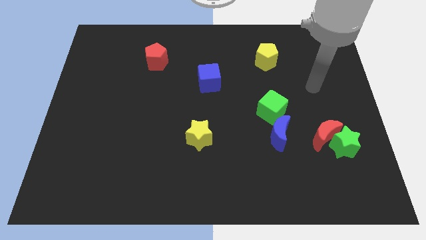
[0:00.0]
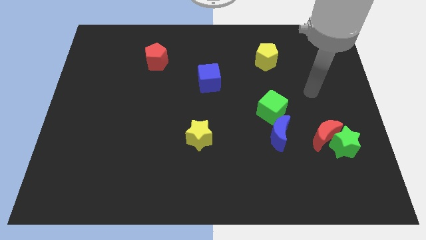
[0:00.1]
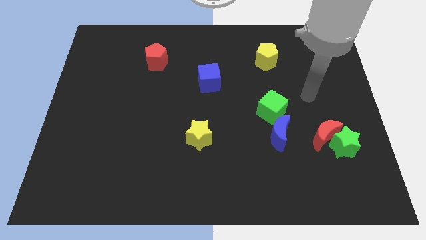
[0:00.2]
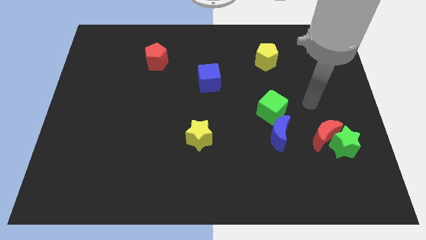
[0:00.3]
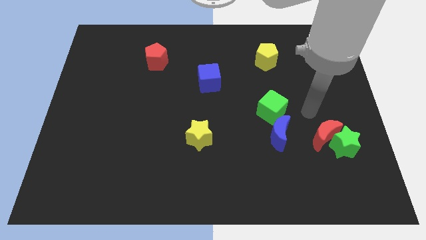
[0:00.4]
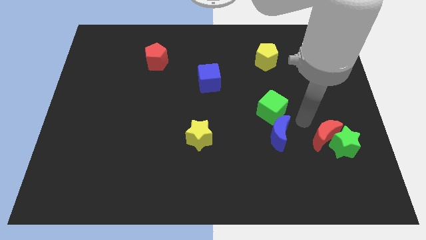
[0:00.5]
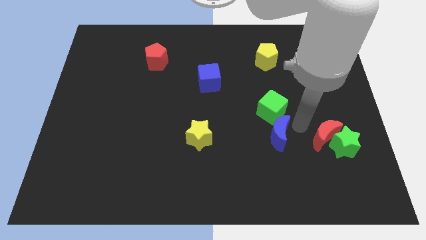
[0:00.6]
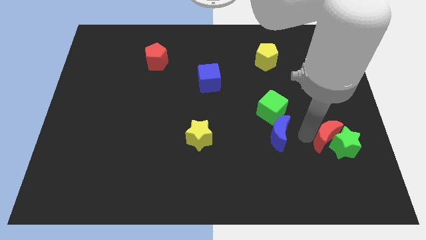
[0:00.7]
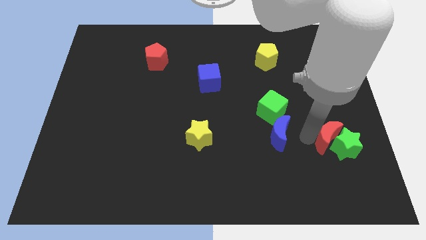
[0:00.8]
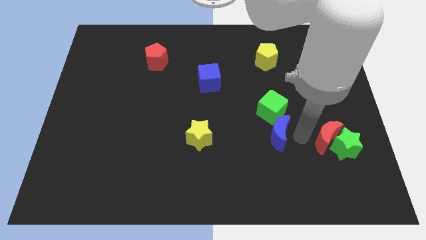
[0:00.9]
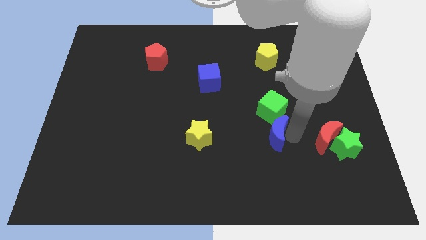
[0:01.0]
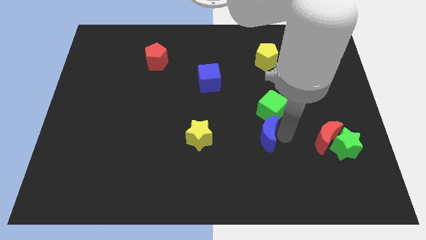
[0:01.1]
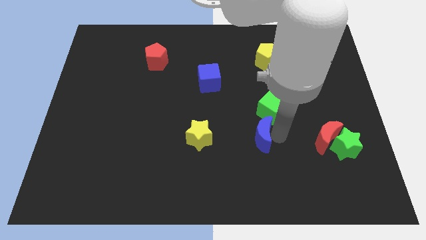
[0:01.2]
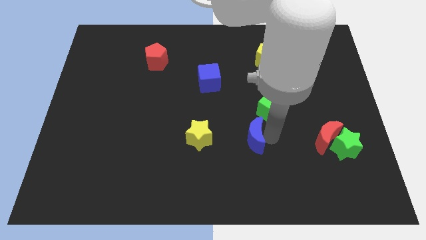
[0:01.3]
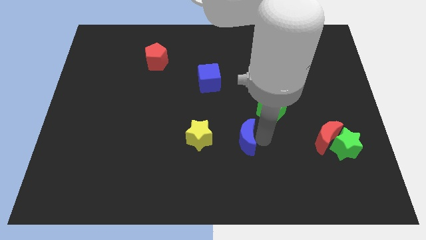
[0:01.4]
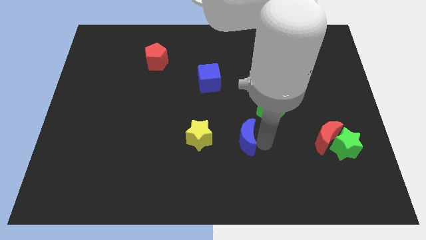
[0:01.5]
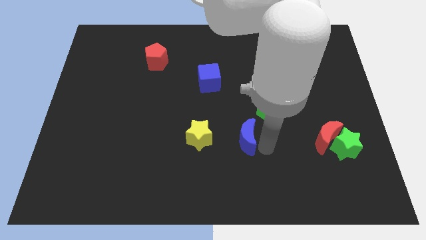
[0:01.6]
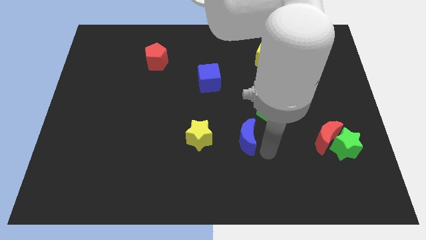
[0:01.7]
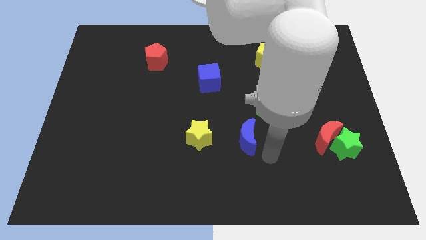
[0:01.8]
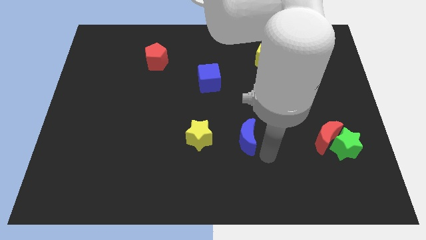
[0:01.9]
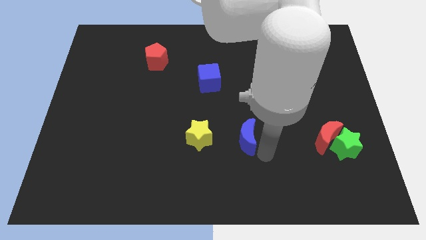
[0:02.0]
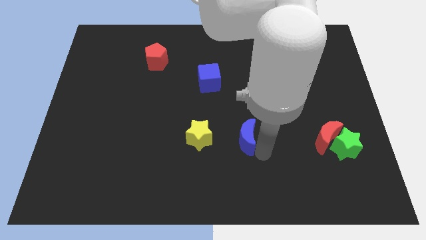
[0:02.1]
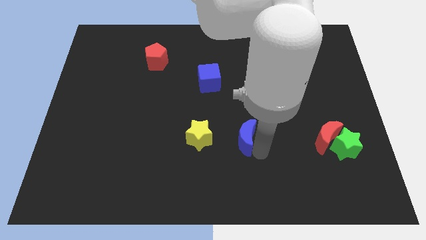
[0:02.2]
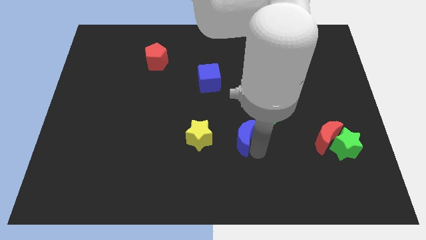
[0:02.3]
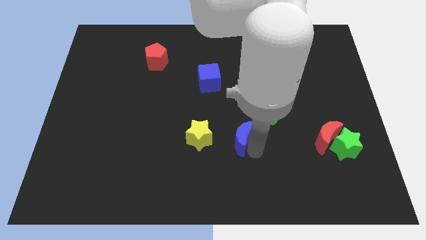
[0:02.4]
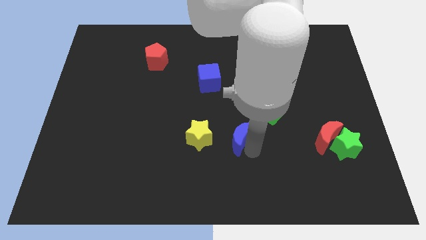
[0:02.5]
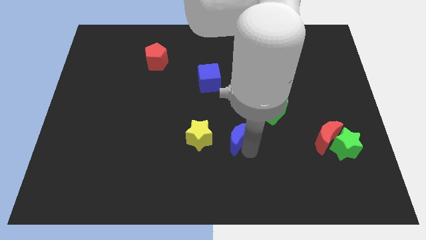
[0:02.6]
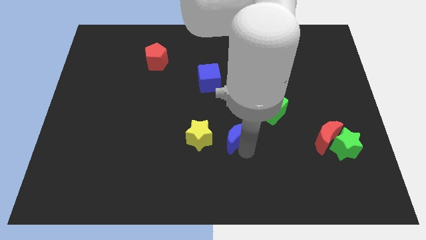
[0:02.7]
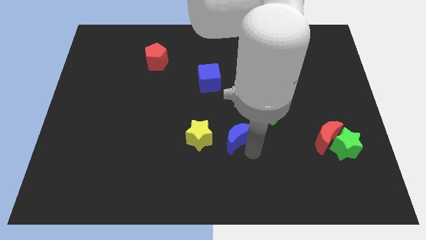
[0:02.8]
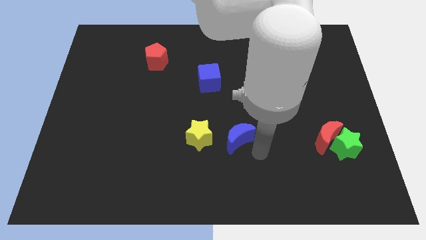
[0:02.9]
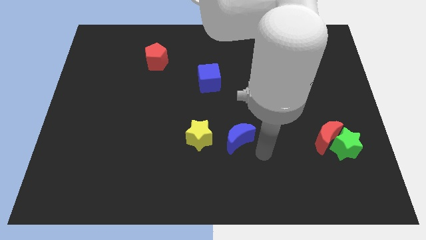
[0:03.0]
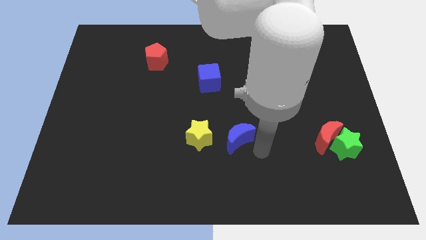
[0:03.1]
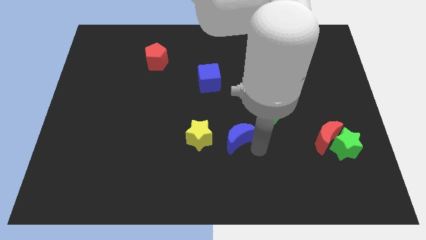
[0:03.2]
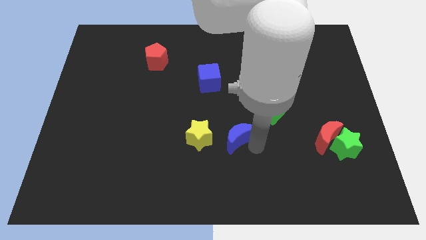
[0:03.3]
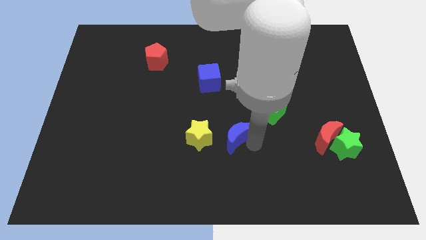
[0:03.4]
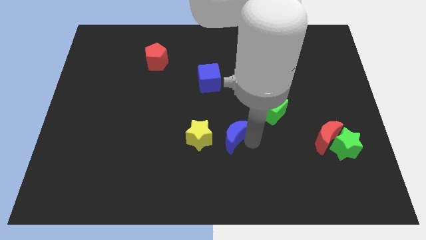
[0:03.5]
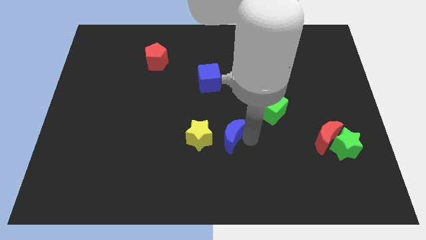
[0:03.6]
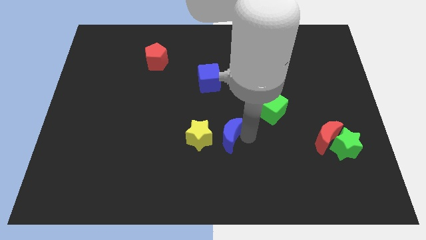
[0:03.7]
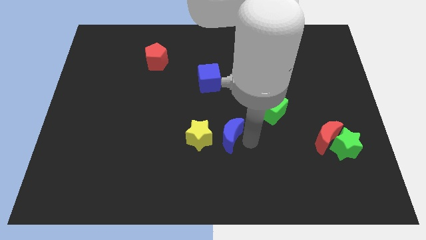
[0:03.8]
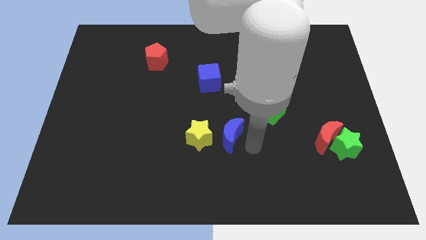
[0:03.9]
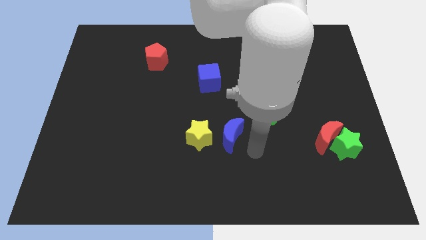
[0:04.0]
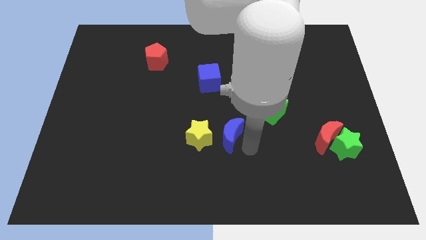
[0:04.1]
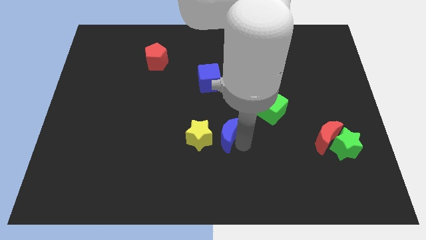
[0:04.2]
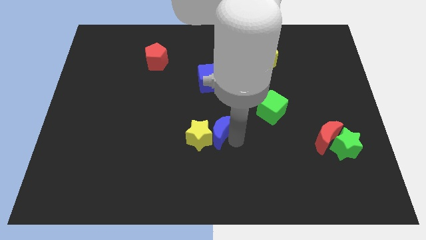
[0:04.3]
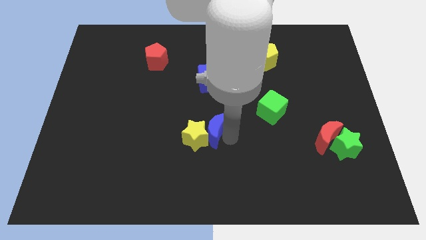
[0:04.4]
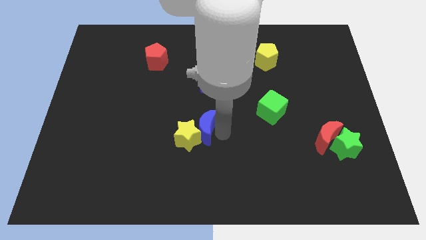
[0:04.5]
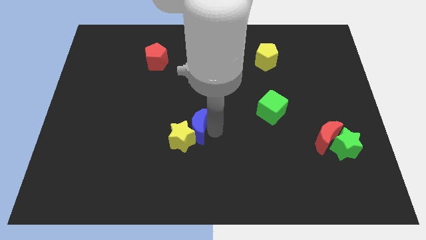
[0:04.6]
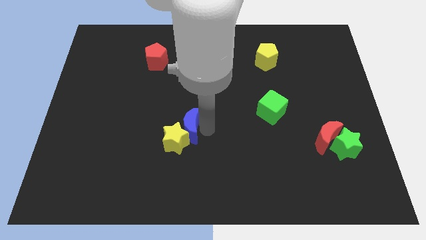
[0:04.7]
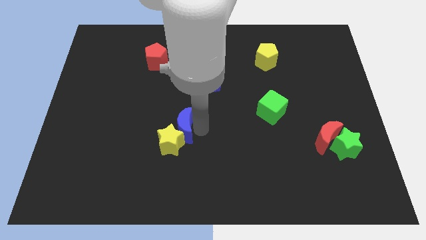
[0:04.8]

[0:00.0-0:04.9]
slide the blue moon to the left

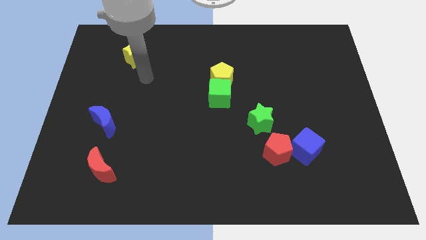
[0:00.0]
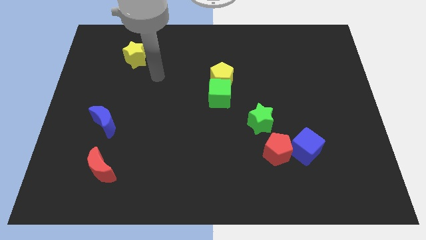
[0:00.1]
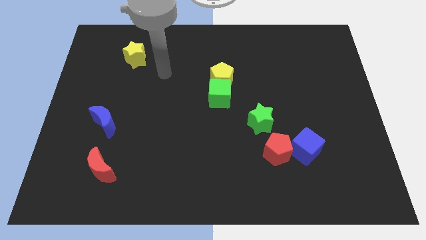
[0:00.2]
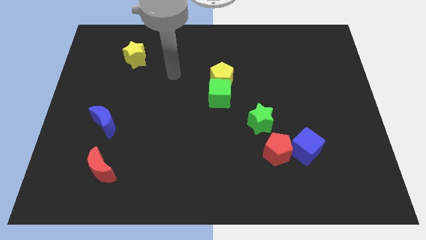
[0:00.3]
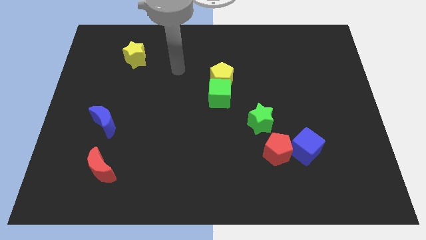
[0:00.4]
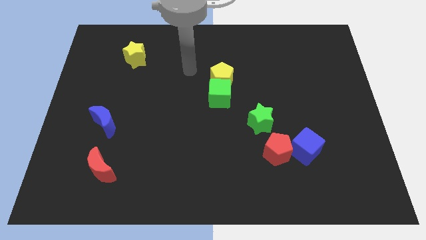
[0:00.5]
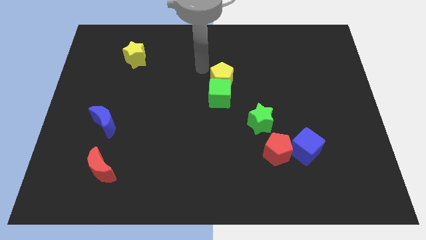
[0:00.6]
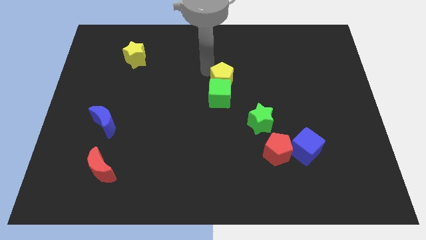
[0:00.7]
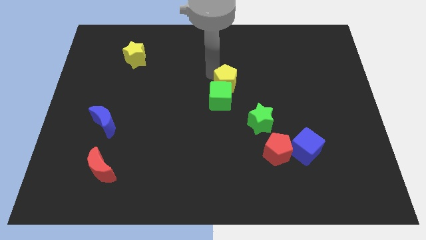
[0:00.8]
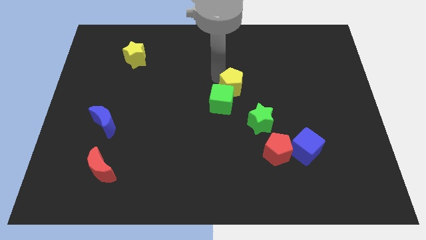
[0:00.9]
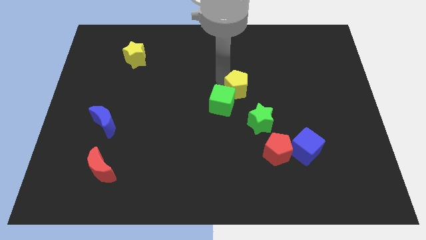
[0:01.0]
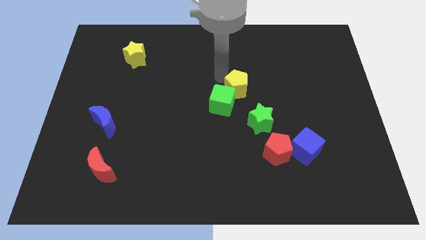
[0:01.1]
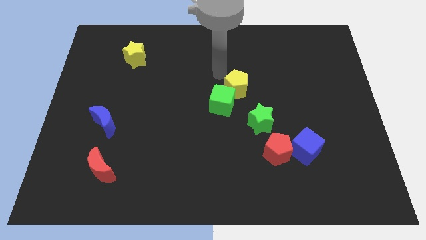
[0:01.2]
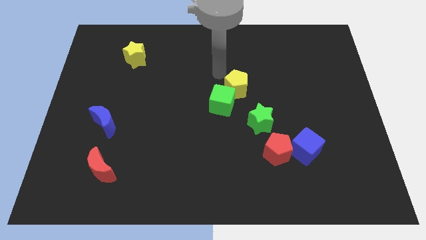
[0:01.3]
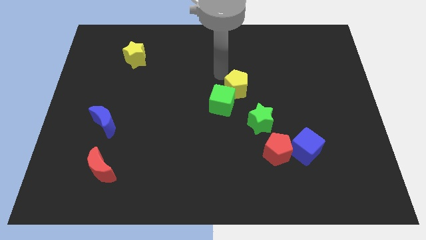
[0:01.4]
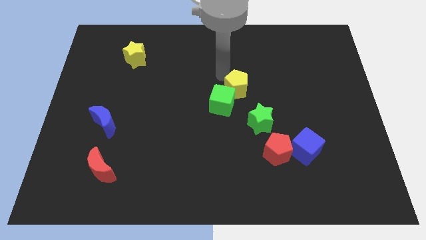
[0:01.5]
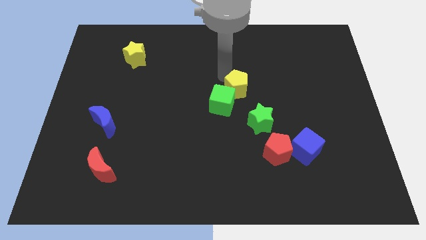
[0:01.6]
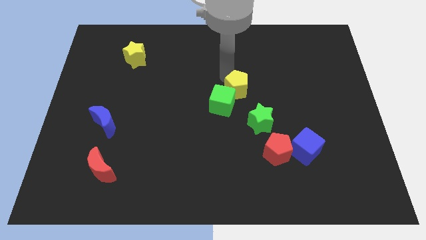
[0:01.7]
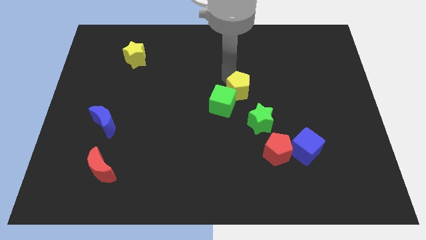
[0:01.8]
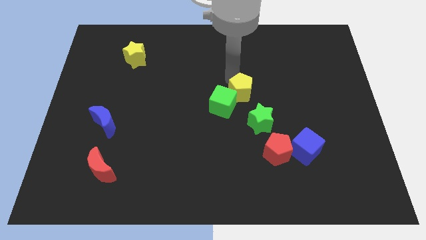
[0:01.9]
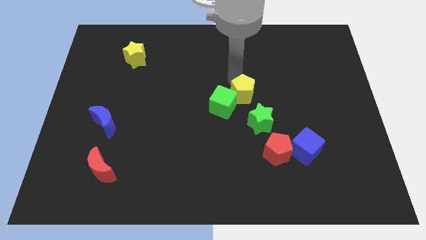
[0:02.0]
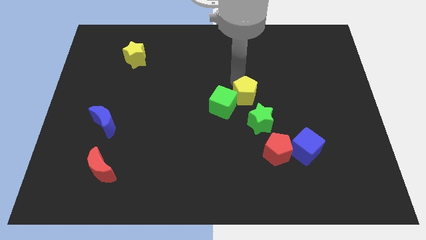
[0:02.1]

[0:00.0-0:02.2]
move the yellow pentagon diagonally down and right a bit

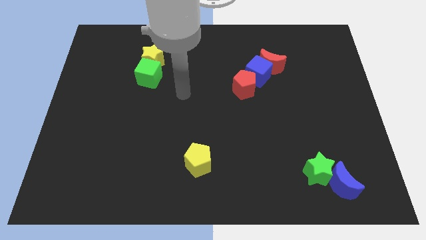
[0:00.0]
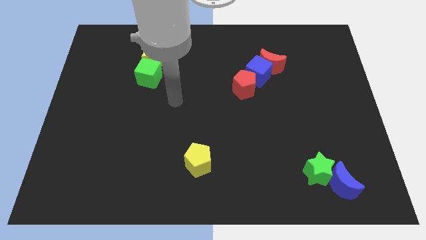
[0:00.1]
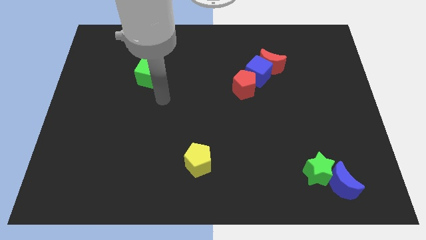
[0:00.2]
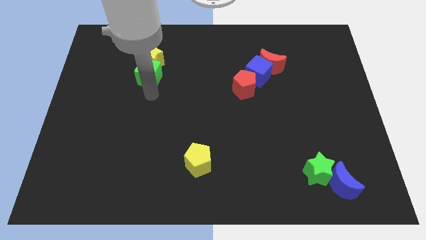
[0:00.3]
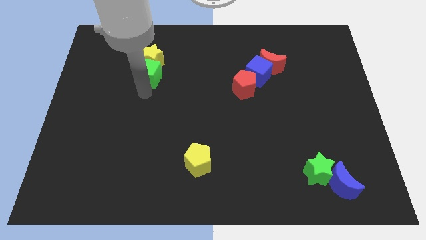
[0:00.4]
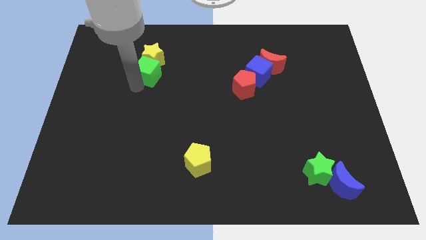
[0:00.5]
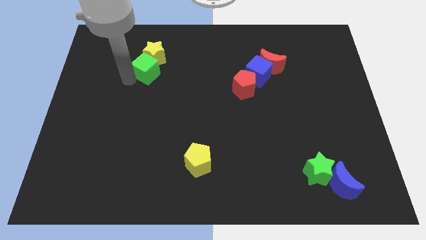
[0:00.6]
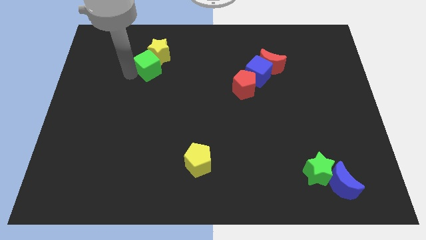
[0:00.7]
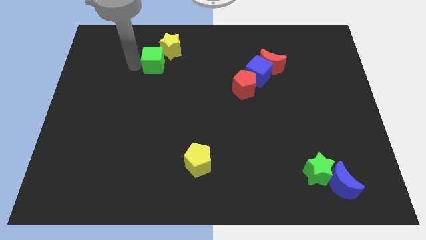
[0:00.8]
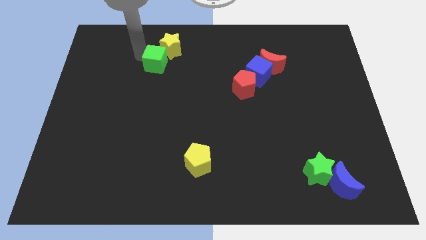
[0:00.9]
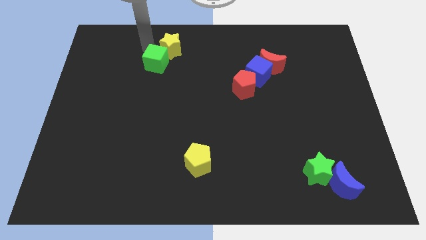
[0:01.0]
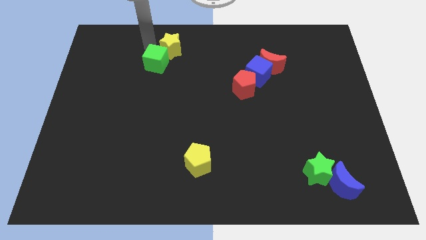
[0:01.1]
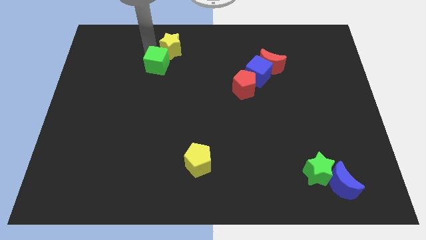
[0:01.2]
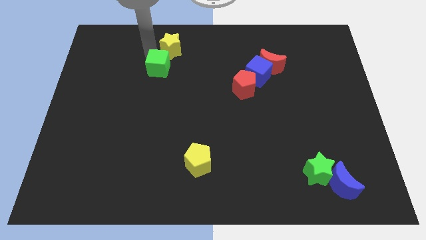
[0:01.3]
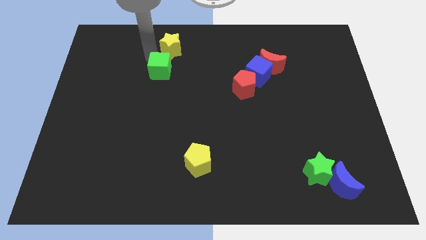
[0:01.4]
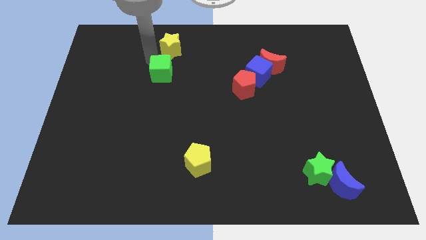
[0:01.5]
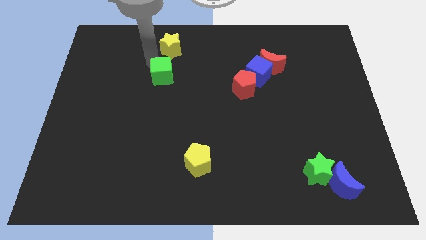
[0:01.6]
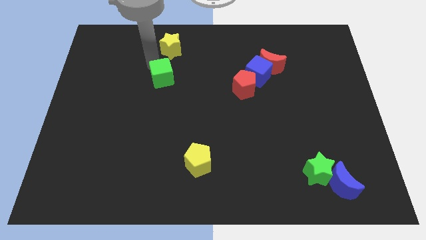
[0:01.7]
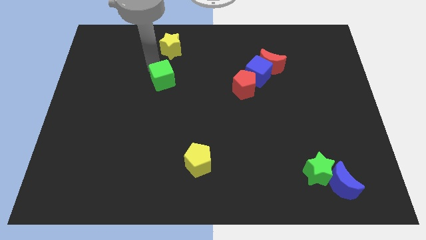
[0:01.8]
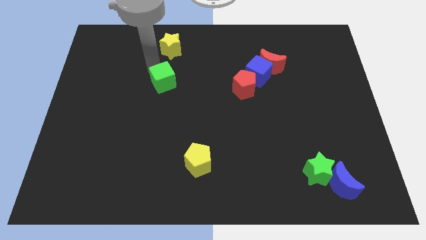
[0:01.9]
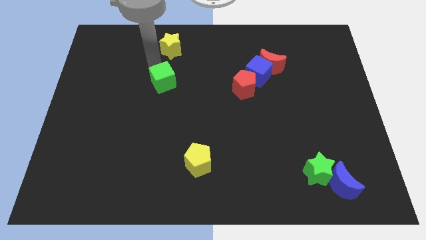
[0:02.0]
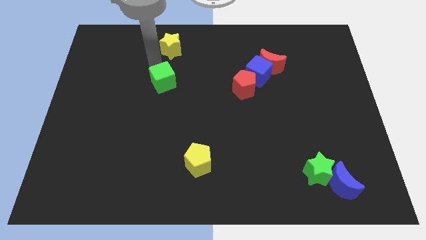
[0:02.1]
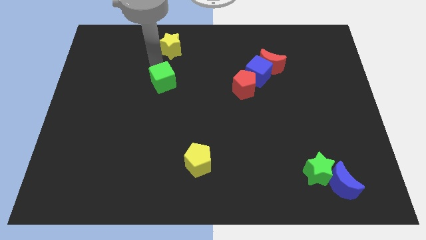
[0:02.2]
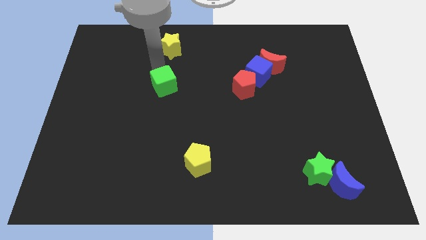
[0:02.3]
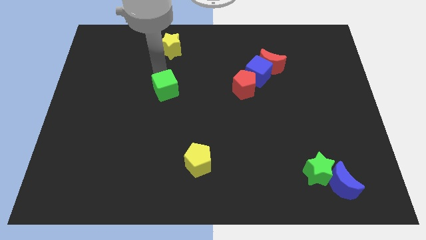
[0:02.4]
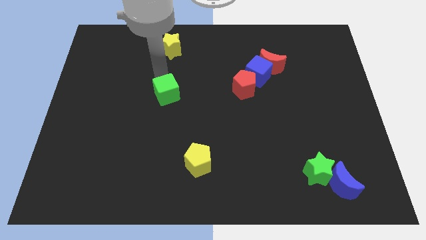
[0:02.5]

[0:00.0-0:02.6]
move the green cube slightly down and to the right diagonally
